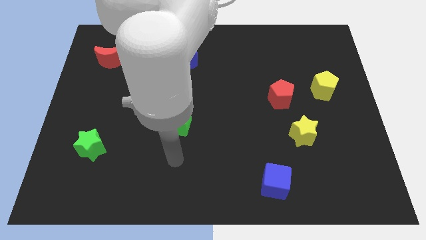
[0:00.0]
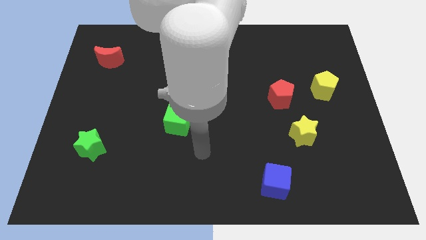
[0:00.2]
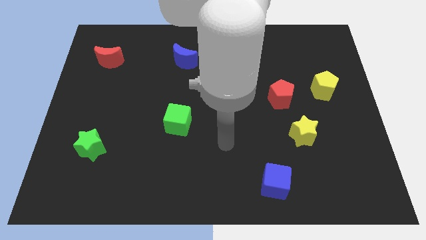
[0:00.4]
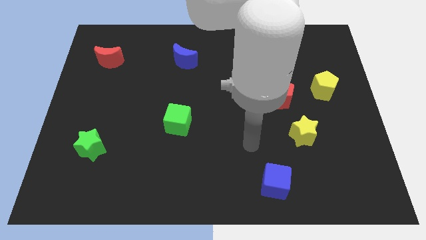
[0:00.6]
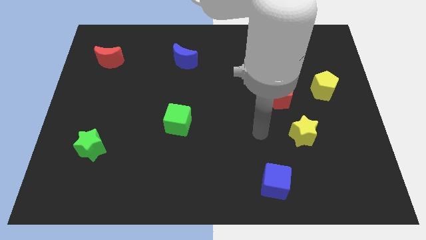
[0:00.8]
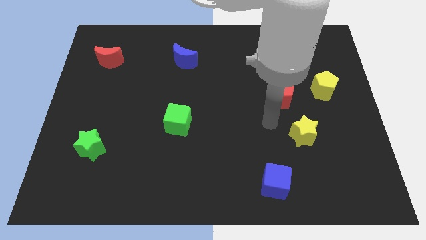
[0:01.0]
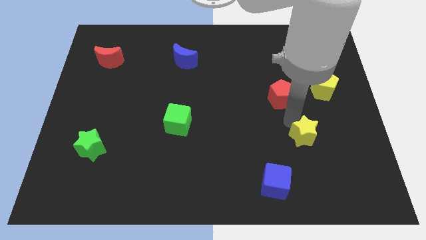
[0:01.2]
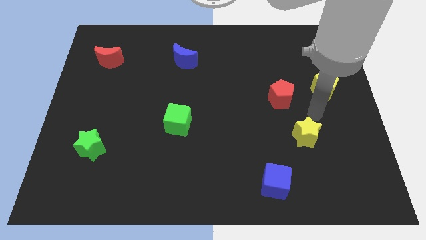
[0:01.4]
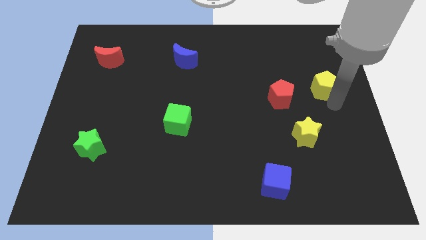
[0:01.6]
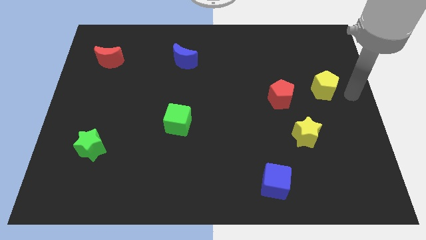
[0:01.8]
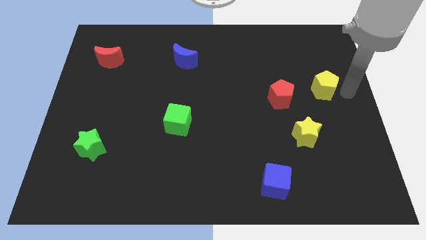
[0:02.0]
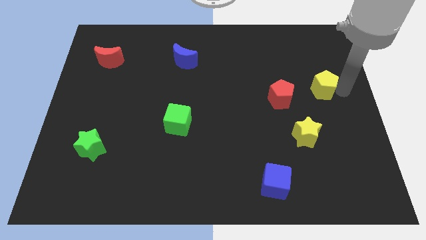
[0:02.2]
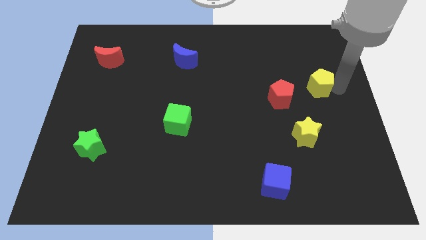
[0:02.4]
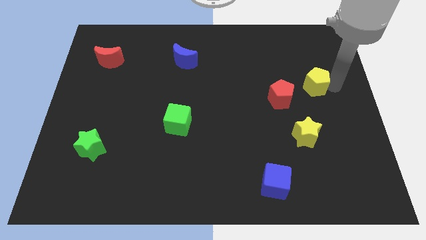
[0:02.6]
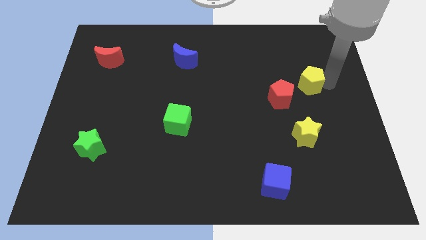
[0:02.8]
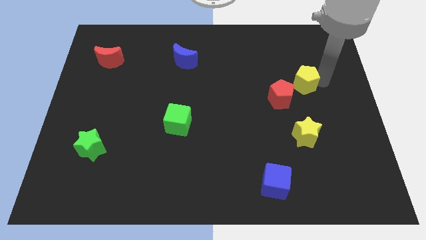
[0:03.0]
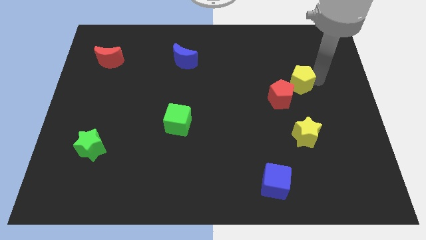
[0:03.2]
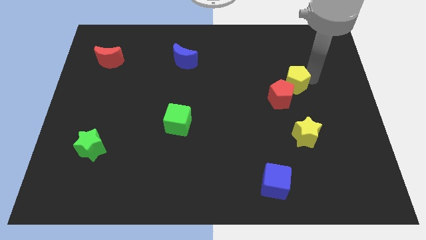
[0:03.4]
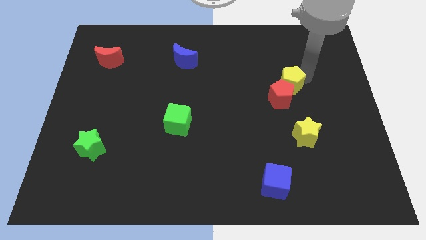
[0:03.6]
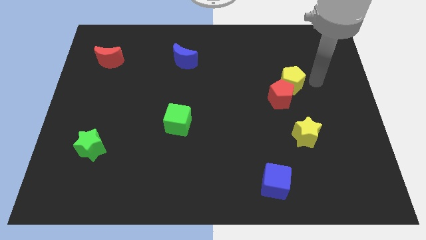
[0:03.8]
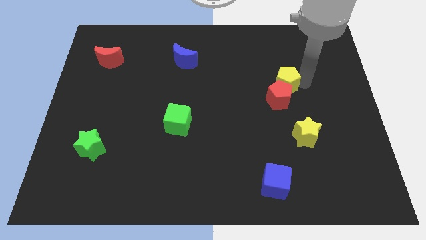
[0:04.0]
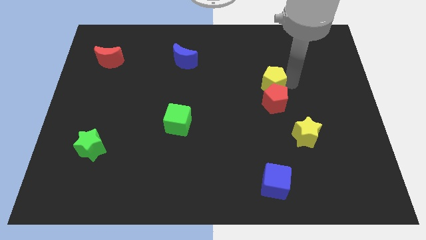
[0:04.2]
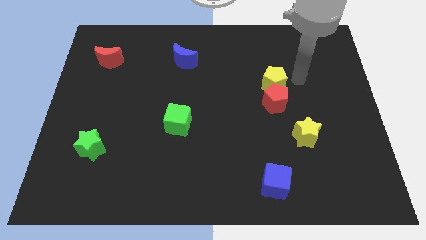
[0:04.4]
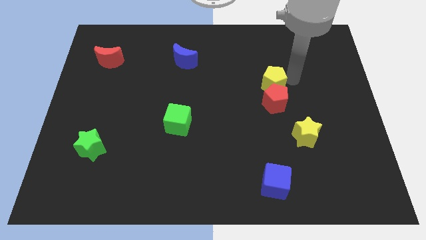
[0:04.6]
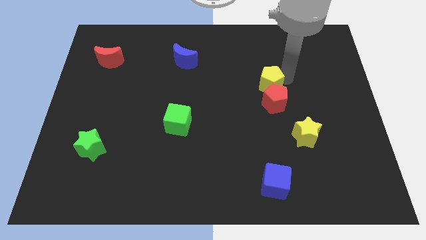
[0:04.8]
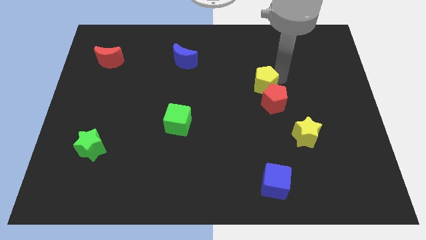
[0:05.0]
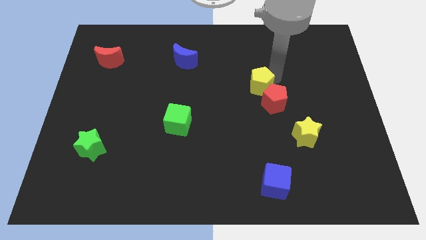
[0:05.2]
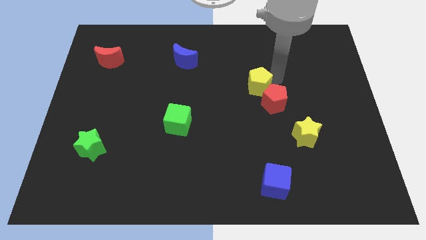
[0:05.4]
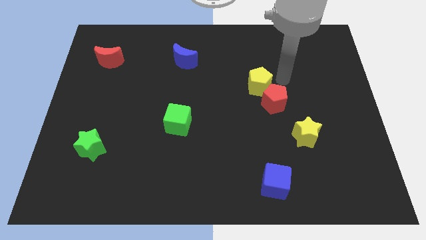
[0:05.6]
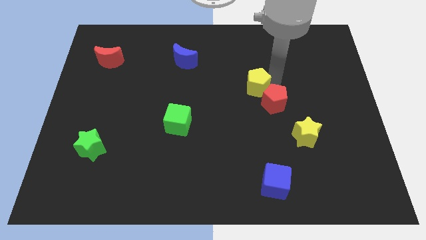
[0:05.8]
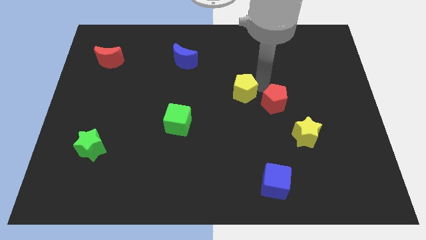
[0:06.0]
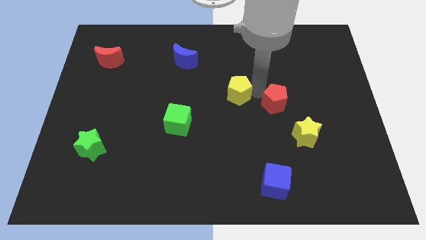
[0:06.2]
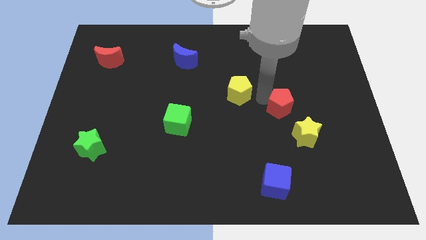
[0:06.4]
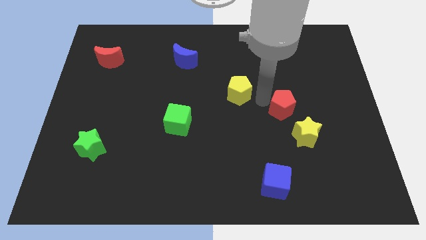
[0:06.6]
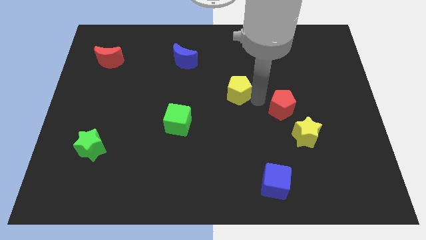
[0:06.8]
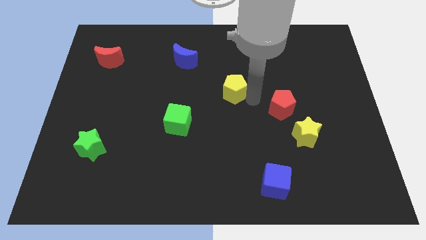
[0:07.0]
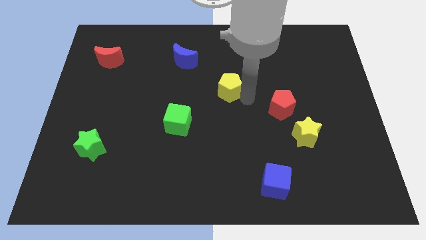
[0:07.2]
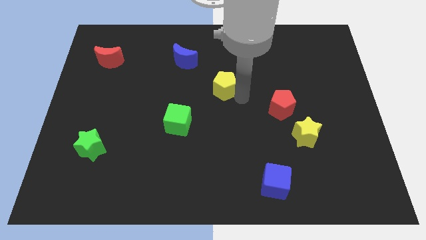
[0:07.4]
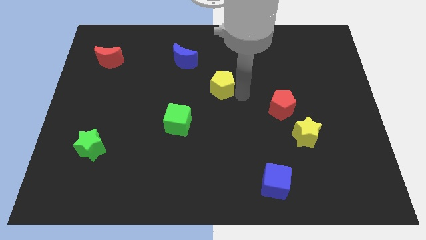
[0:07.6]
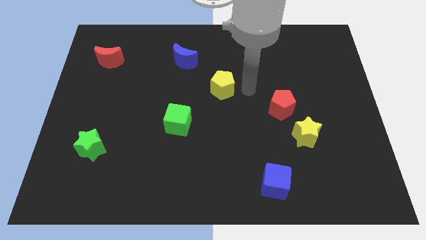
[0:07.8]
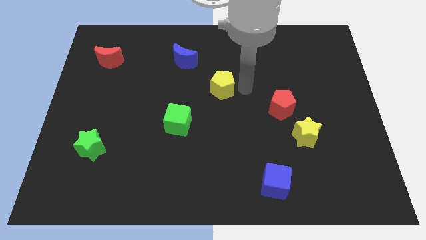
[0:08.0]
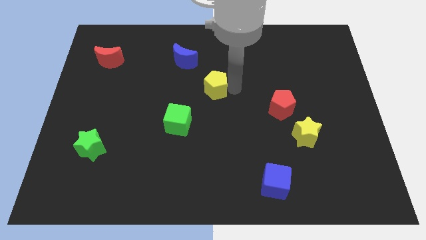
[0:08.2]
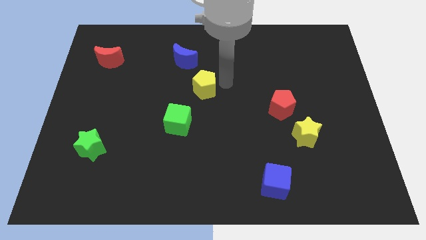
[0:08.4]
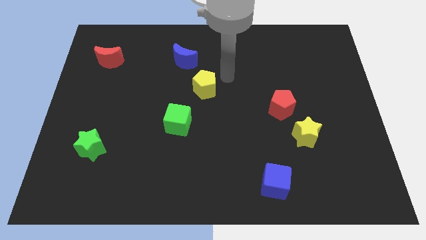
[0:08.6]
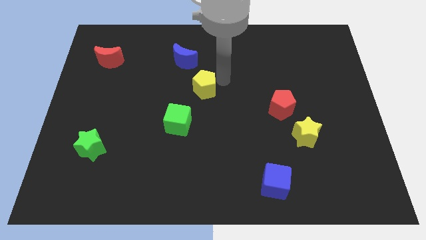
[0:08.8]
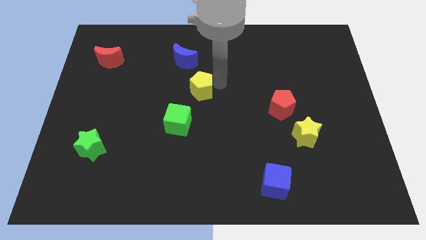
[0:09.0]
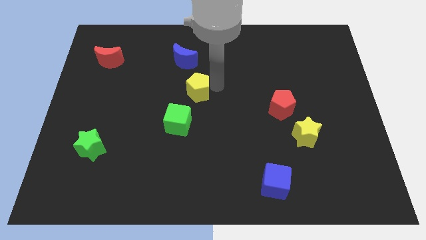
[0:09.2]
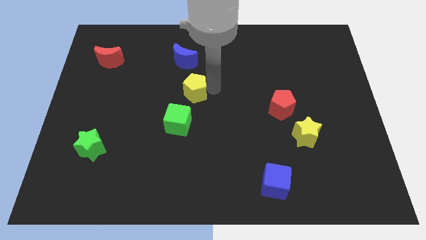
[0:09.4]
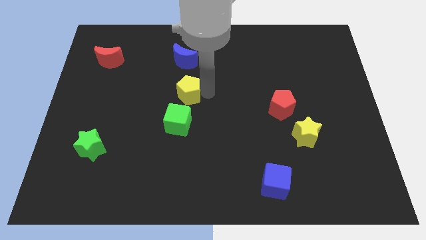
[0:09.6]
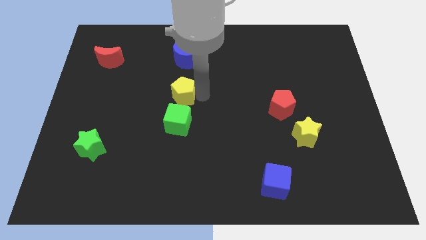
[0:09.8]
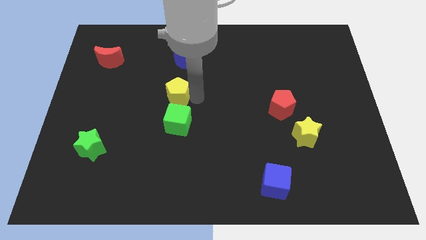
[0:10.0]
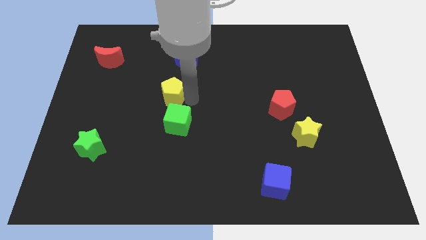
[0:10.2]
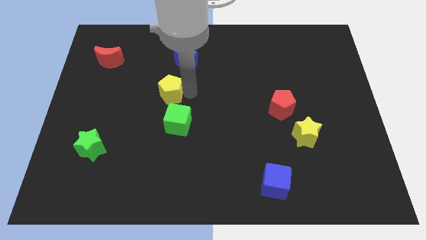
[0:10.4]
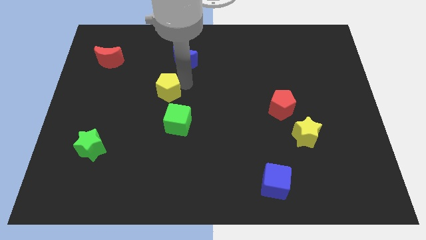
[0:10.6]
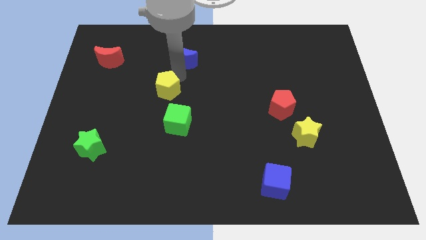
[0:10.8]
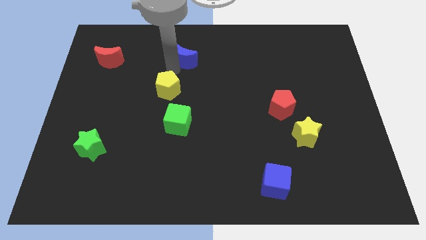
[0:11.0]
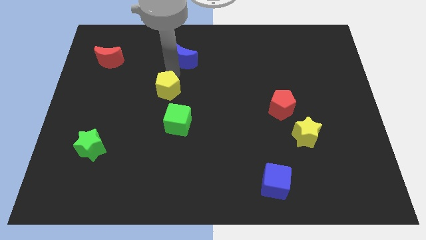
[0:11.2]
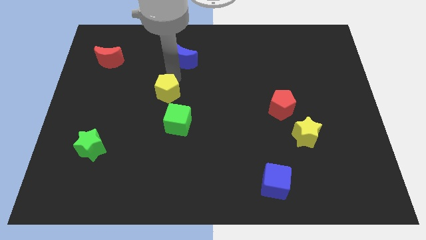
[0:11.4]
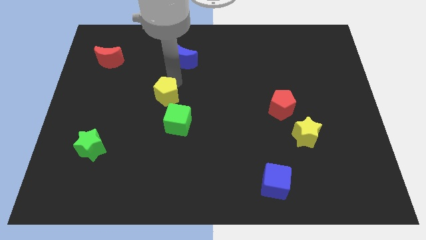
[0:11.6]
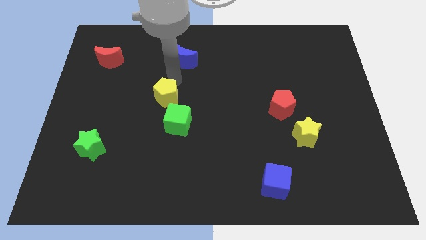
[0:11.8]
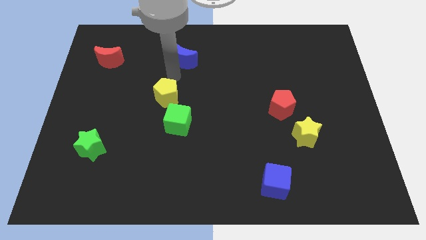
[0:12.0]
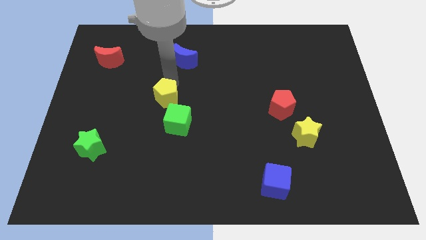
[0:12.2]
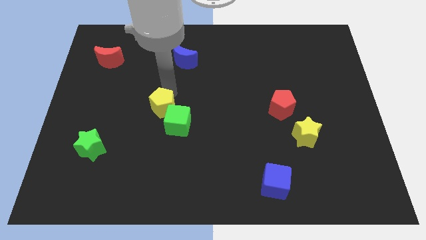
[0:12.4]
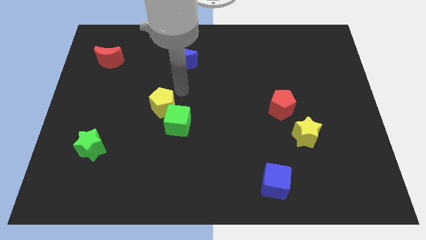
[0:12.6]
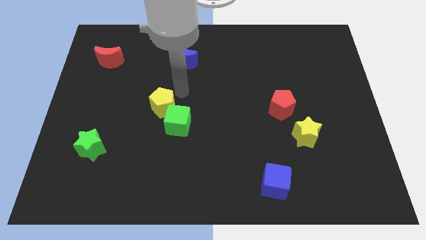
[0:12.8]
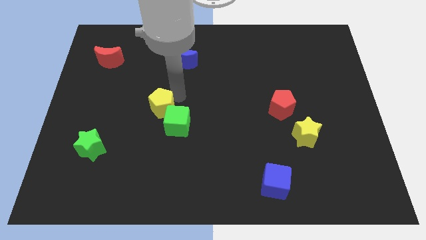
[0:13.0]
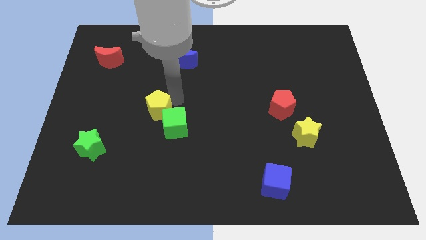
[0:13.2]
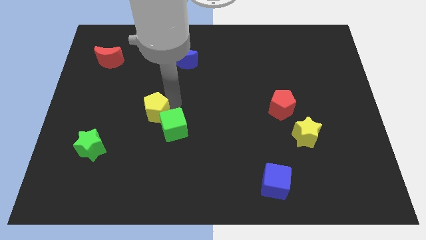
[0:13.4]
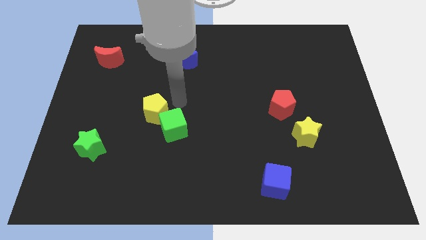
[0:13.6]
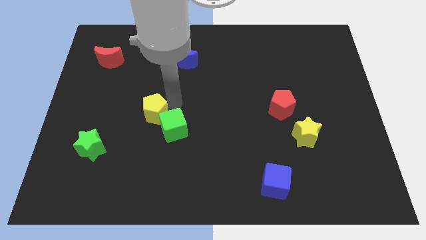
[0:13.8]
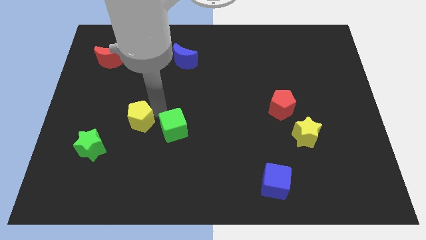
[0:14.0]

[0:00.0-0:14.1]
slide the yellow pentagon to the top right side of the green star
